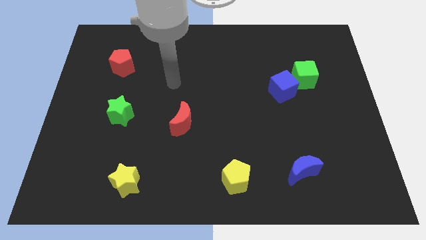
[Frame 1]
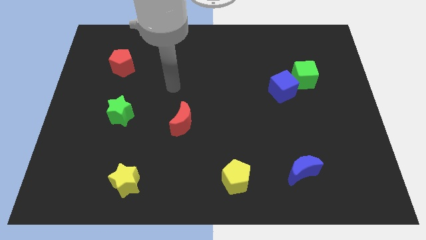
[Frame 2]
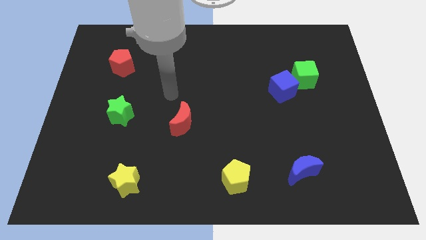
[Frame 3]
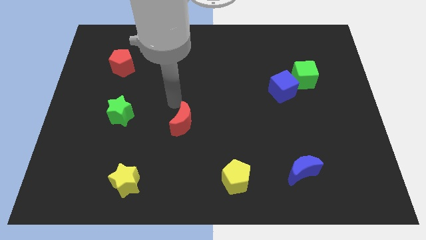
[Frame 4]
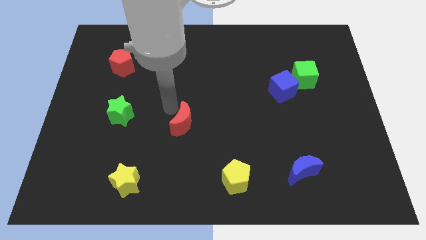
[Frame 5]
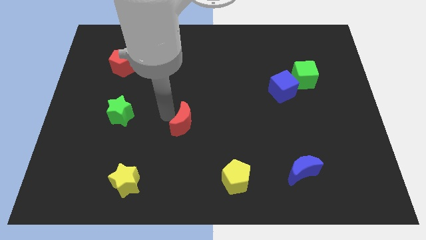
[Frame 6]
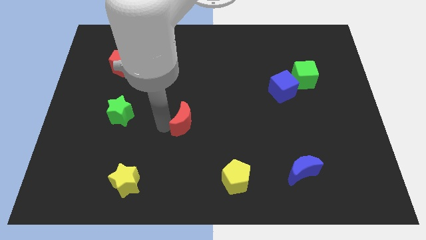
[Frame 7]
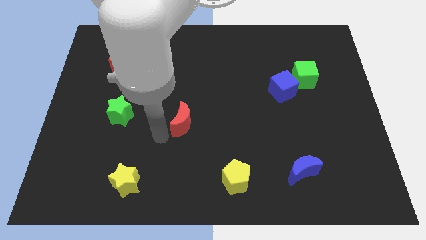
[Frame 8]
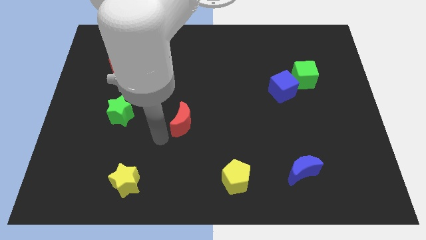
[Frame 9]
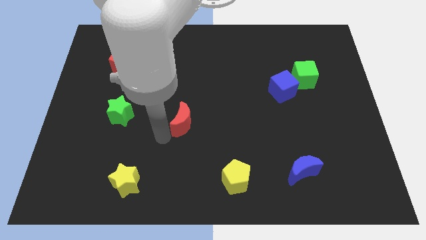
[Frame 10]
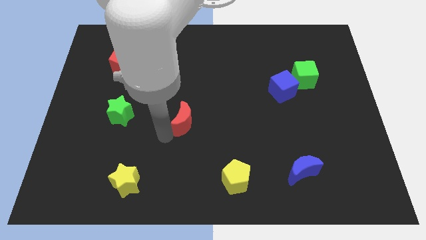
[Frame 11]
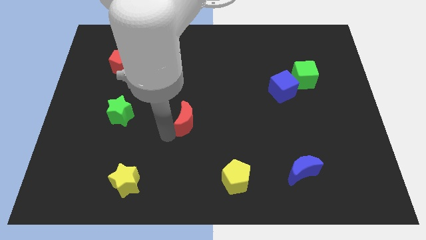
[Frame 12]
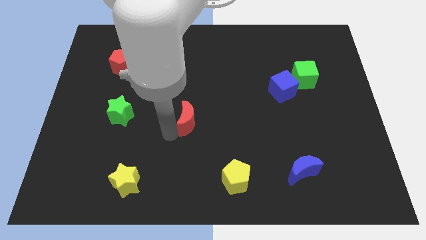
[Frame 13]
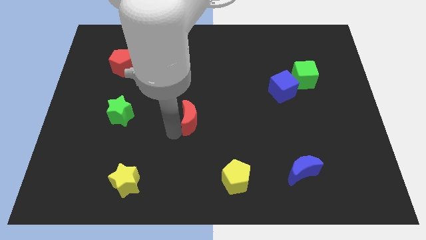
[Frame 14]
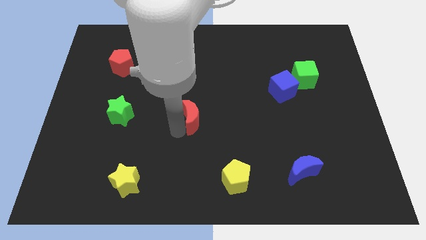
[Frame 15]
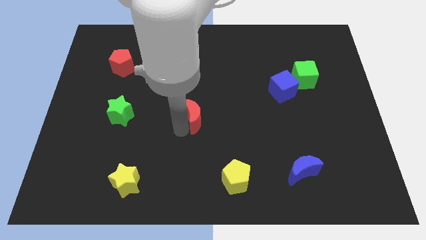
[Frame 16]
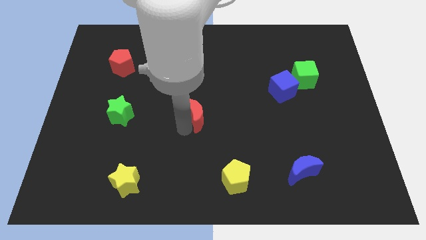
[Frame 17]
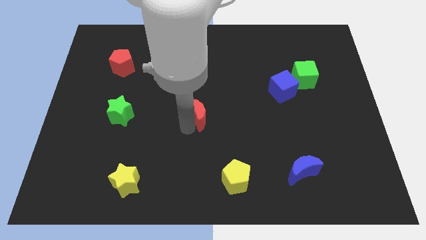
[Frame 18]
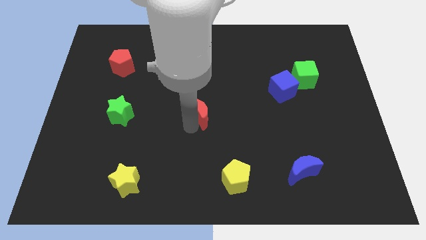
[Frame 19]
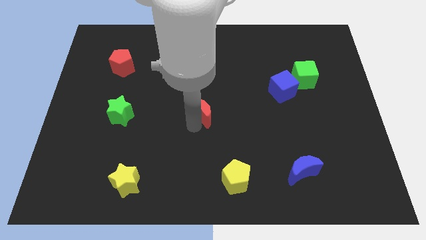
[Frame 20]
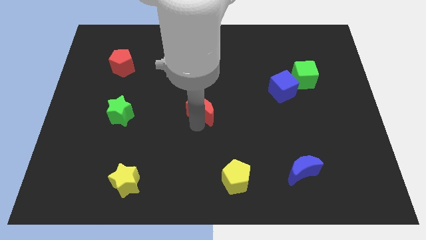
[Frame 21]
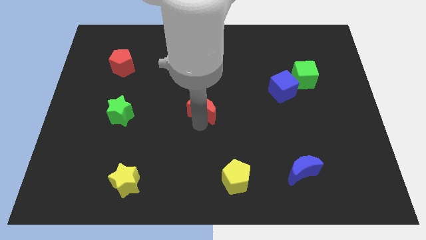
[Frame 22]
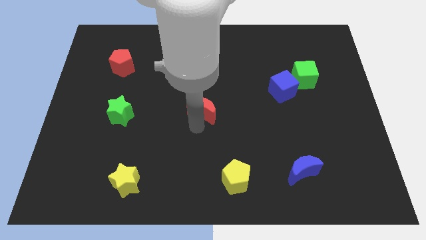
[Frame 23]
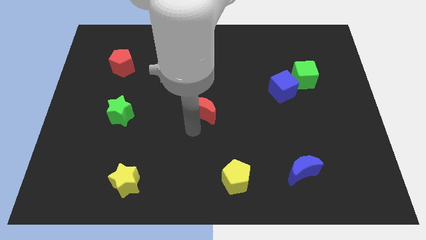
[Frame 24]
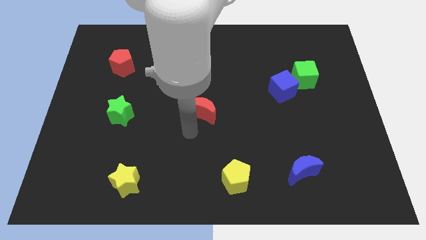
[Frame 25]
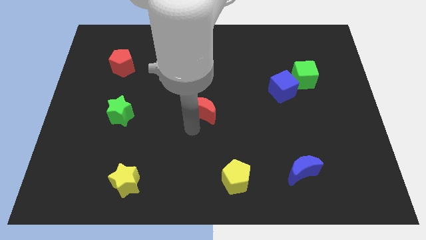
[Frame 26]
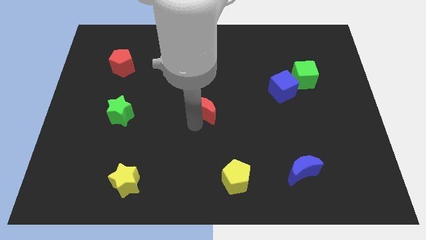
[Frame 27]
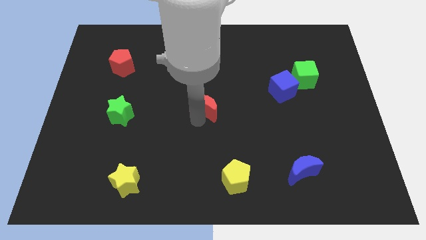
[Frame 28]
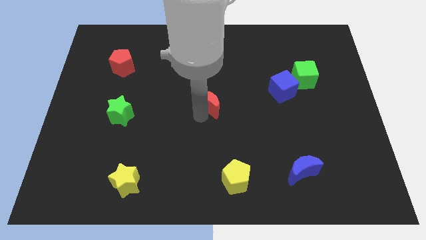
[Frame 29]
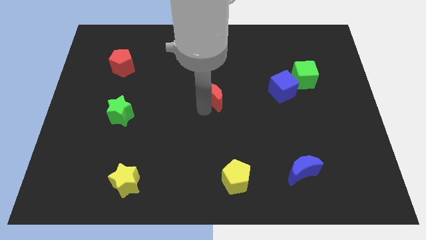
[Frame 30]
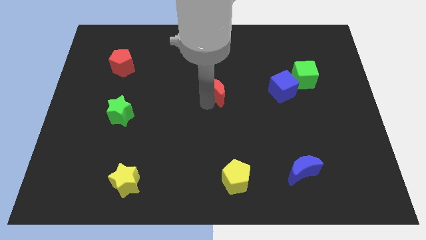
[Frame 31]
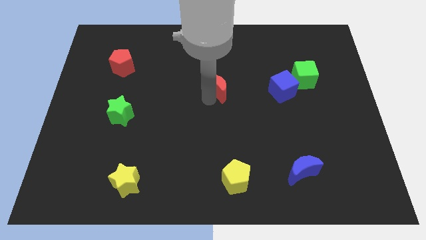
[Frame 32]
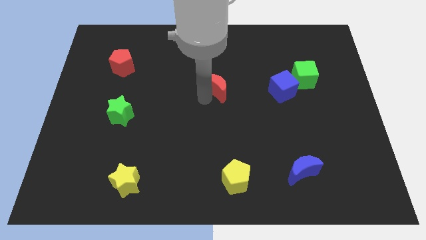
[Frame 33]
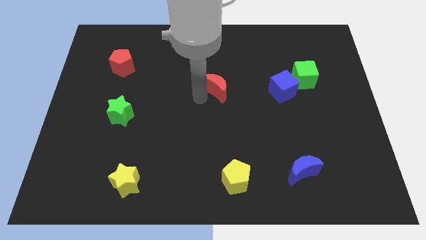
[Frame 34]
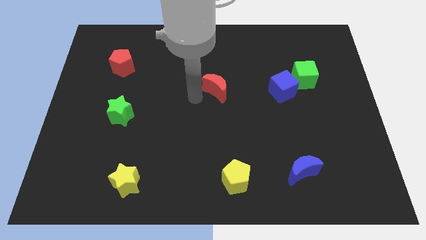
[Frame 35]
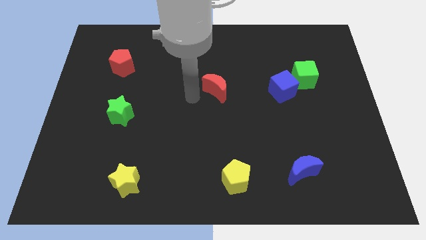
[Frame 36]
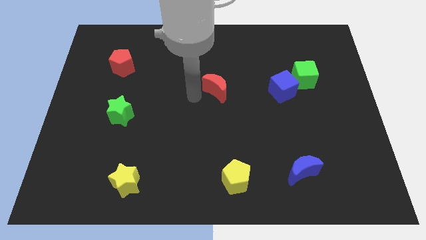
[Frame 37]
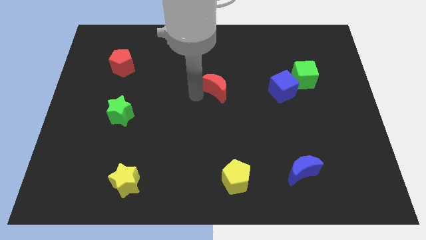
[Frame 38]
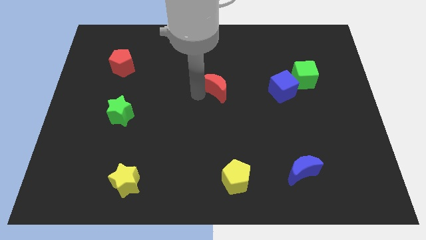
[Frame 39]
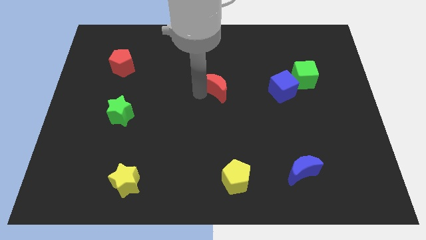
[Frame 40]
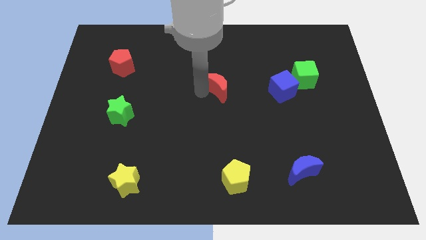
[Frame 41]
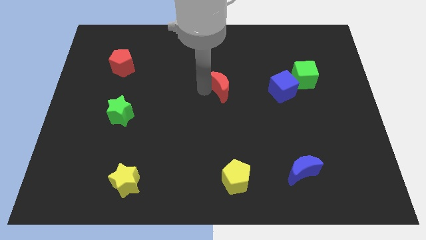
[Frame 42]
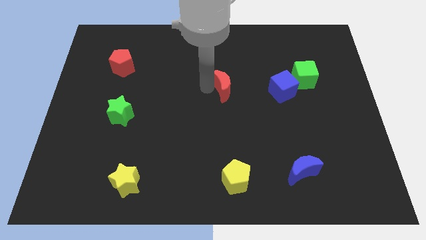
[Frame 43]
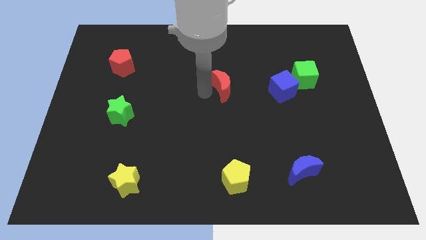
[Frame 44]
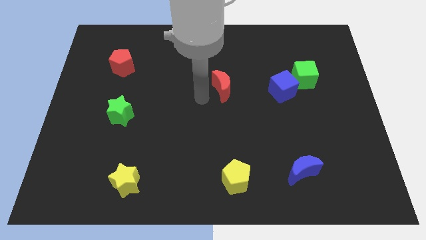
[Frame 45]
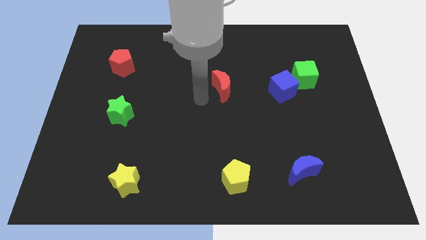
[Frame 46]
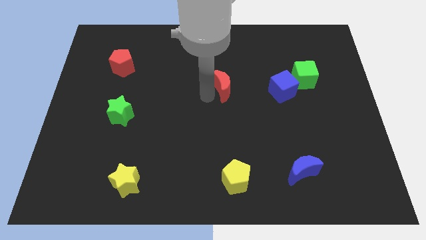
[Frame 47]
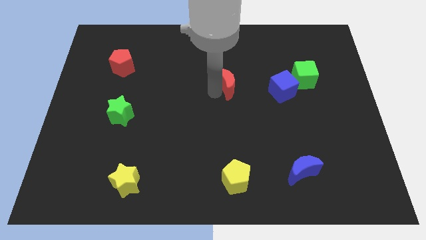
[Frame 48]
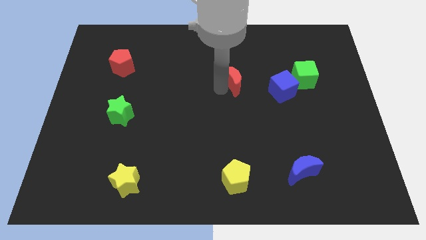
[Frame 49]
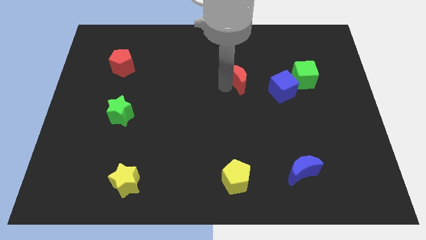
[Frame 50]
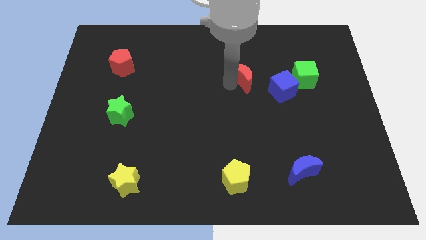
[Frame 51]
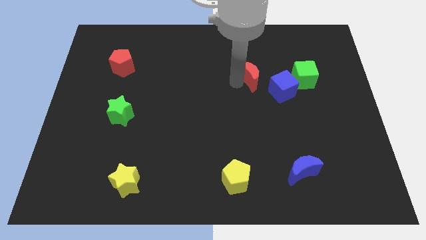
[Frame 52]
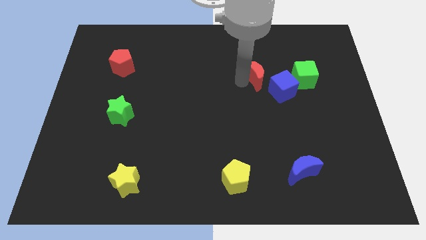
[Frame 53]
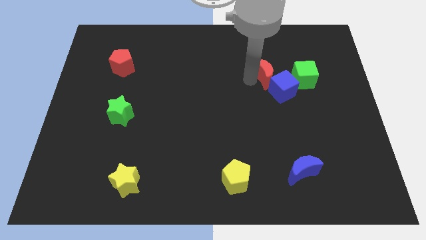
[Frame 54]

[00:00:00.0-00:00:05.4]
push the red moon to the top of the blue cube

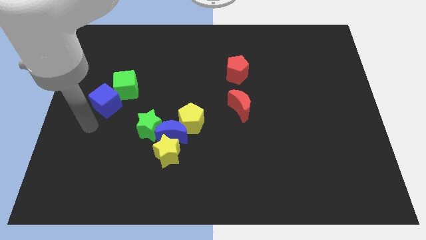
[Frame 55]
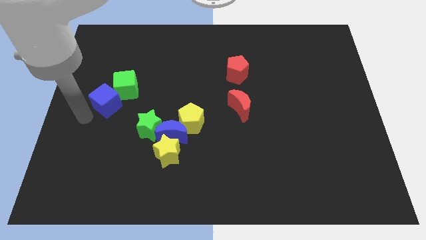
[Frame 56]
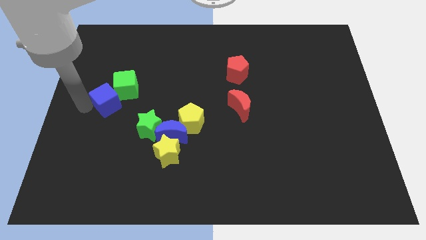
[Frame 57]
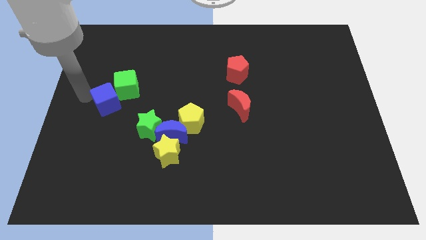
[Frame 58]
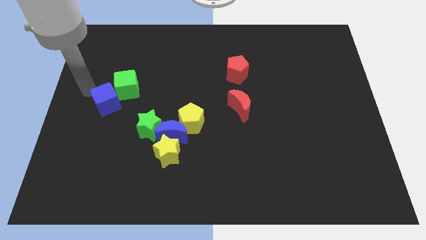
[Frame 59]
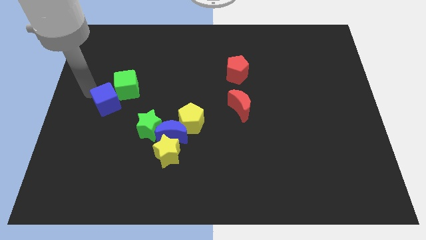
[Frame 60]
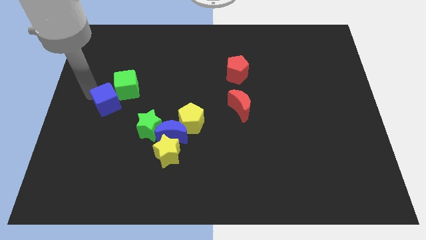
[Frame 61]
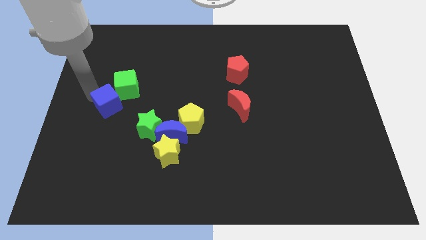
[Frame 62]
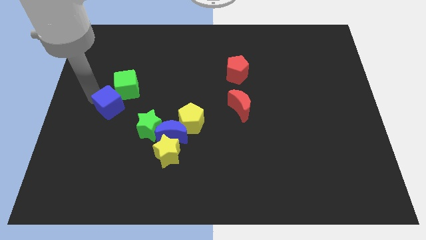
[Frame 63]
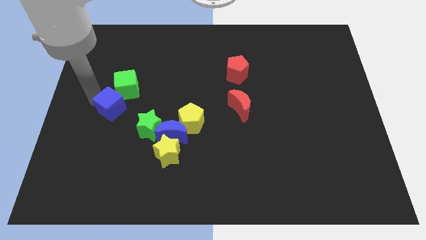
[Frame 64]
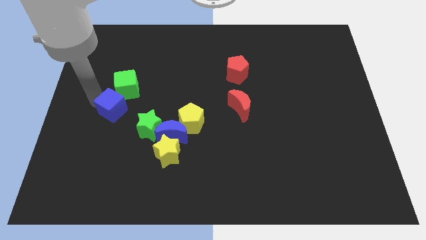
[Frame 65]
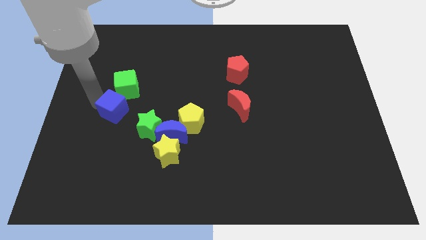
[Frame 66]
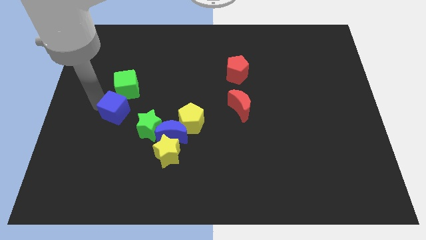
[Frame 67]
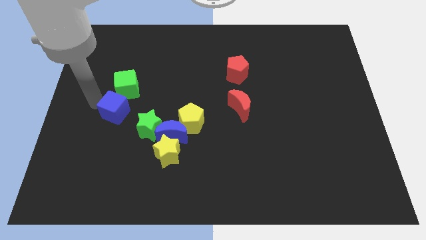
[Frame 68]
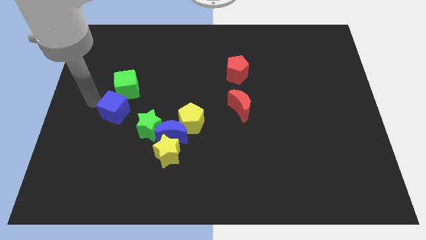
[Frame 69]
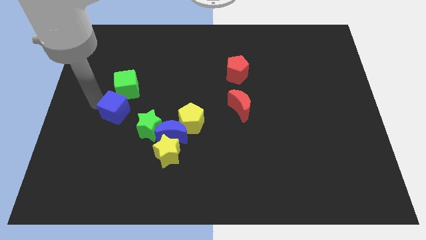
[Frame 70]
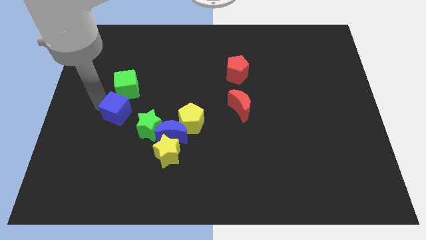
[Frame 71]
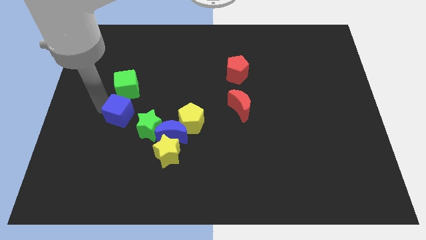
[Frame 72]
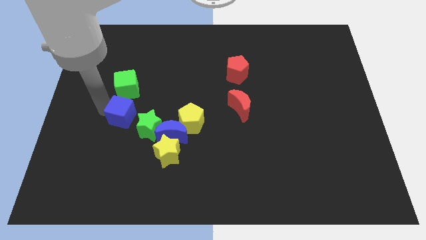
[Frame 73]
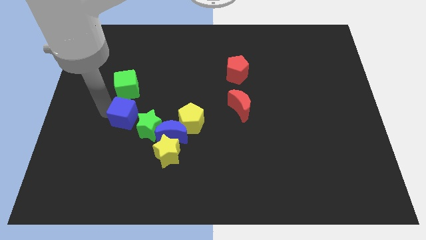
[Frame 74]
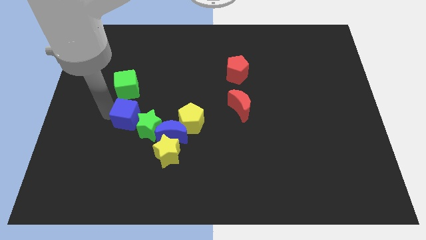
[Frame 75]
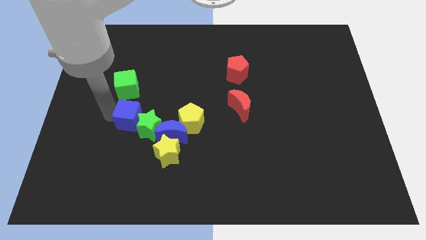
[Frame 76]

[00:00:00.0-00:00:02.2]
put the blue cube to the top left side of the blue moon

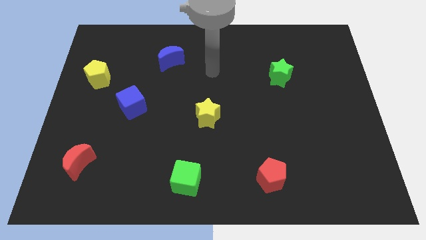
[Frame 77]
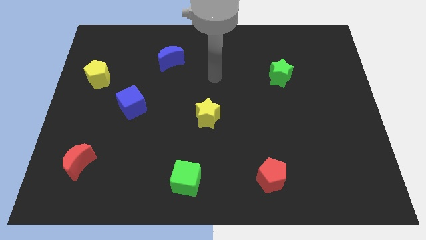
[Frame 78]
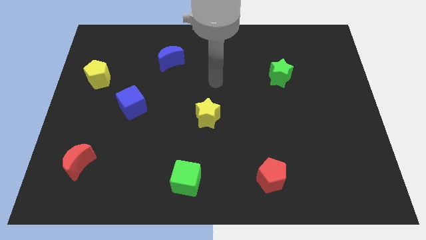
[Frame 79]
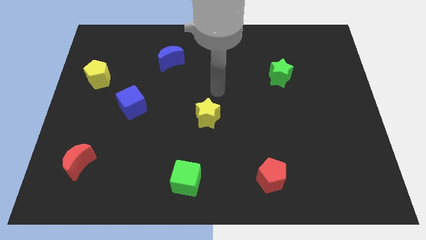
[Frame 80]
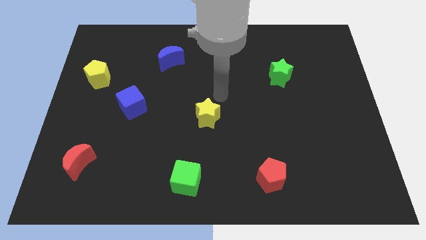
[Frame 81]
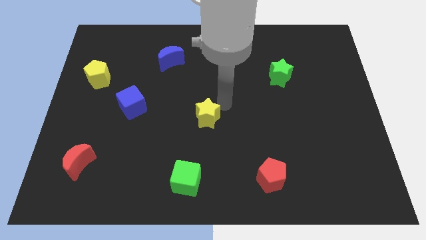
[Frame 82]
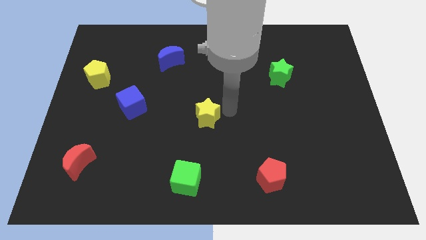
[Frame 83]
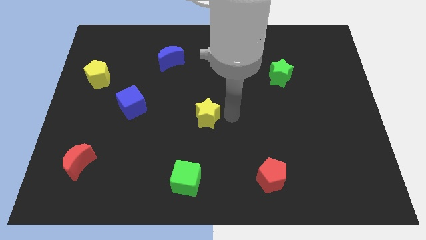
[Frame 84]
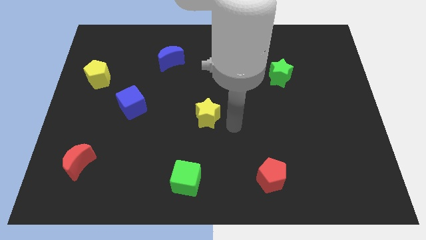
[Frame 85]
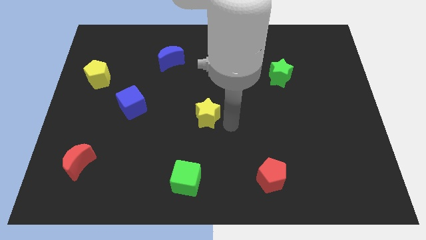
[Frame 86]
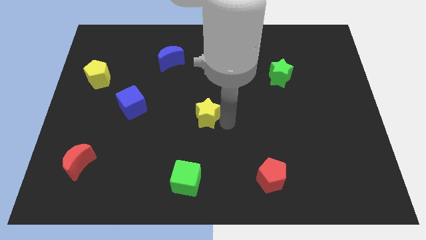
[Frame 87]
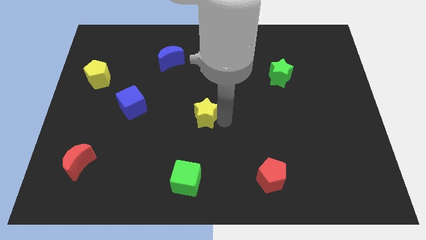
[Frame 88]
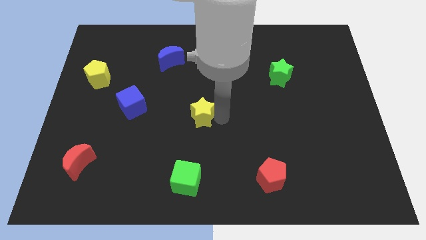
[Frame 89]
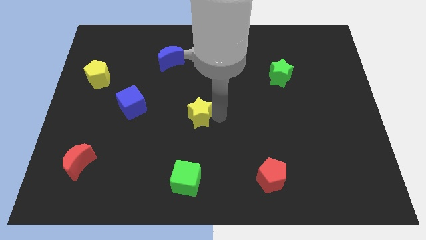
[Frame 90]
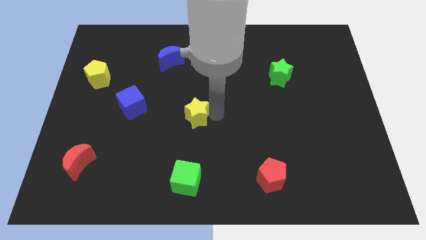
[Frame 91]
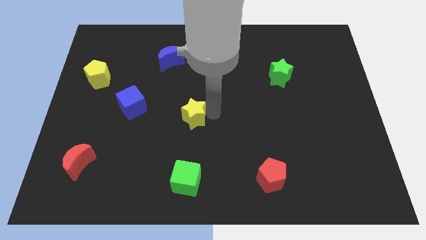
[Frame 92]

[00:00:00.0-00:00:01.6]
put the yellow star to the right side of the blue cube
